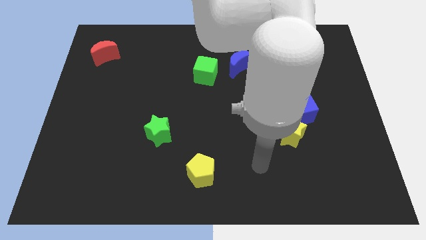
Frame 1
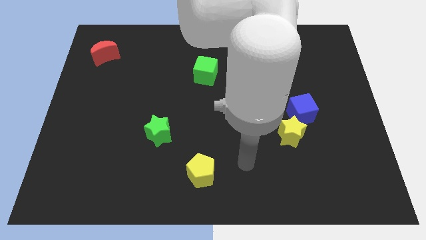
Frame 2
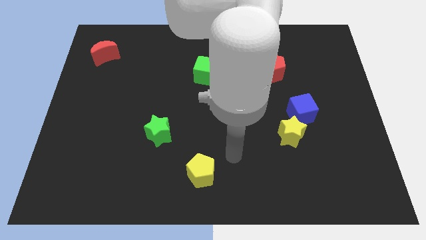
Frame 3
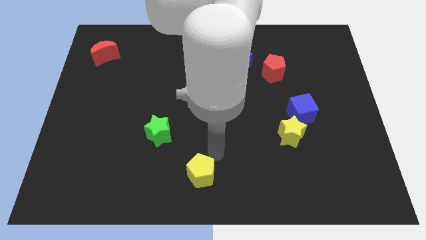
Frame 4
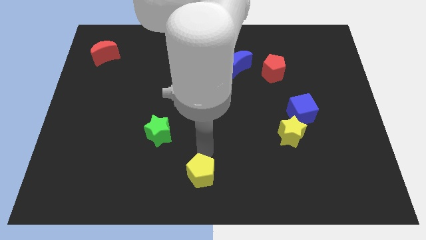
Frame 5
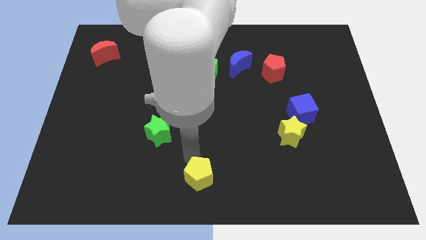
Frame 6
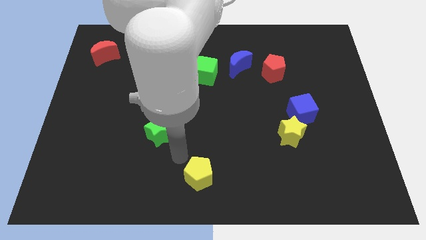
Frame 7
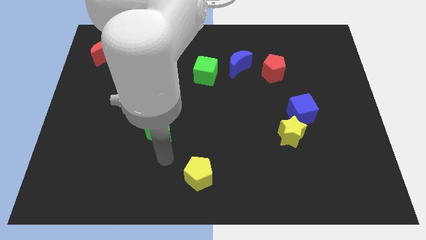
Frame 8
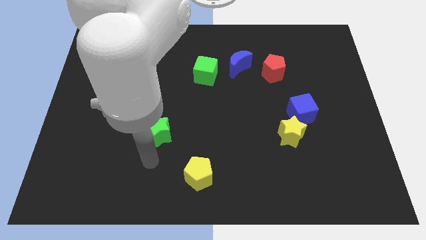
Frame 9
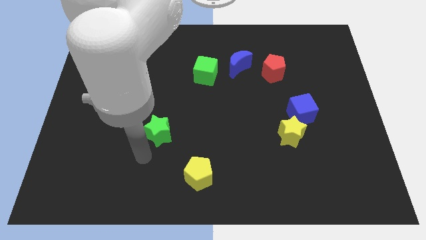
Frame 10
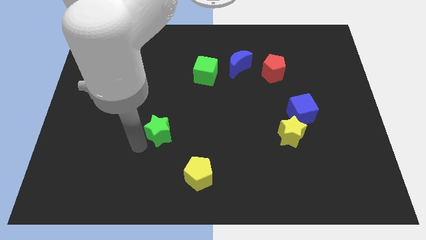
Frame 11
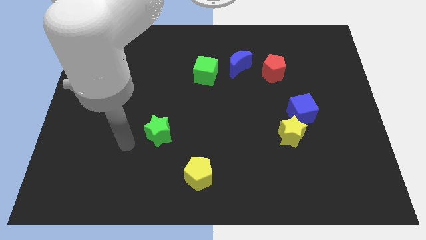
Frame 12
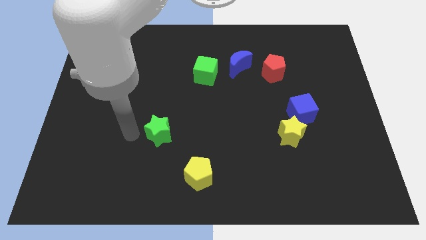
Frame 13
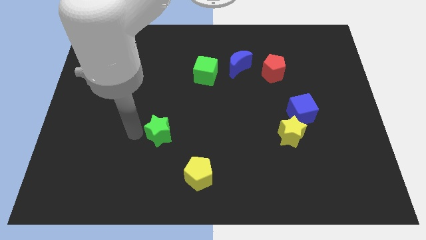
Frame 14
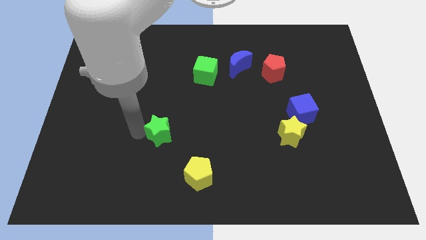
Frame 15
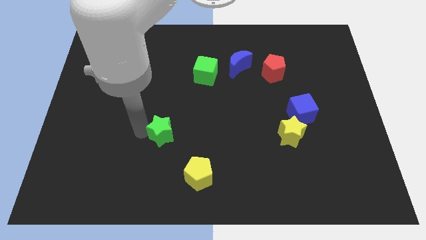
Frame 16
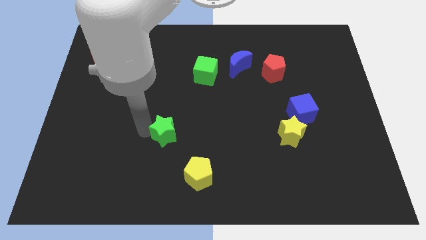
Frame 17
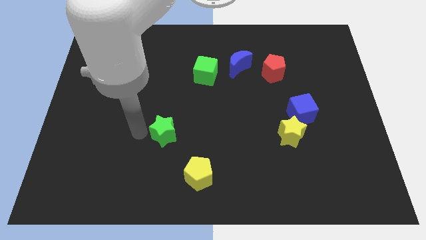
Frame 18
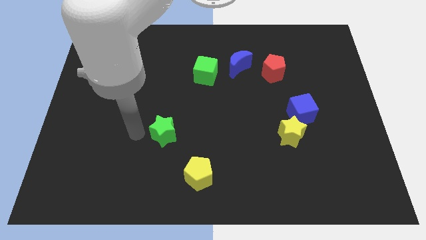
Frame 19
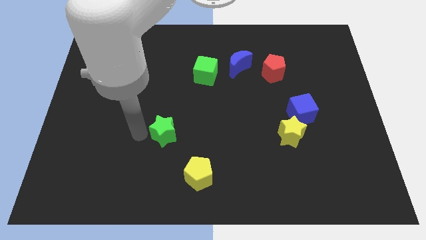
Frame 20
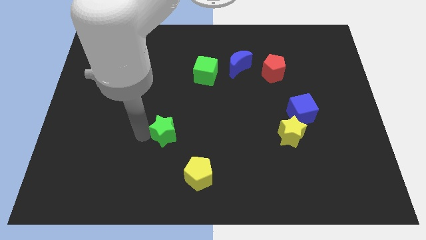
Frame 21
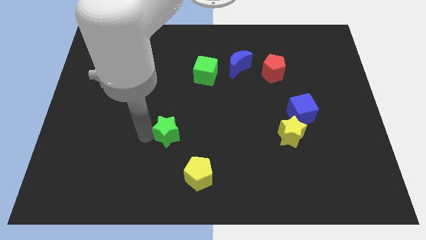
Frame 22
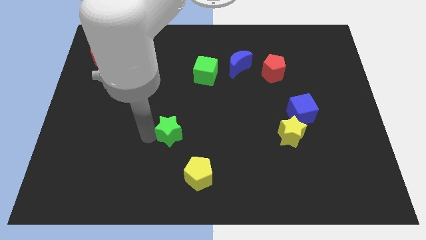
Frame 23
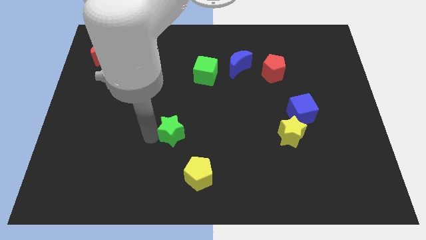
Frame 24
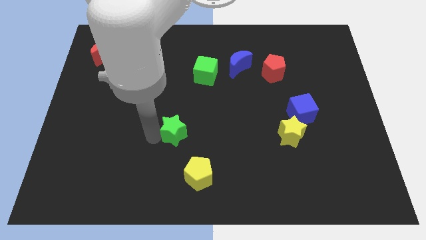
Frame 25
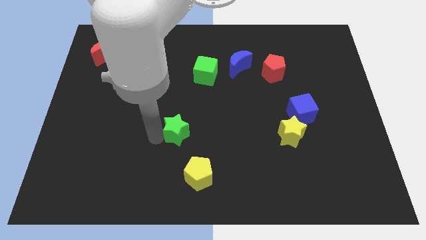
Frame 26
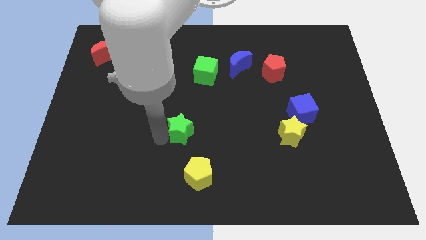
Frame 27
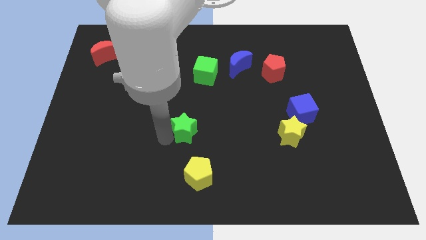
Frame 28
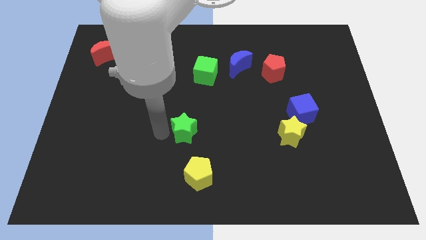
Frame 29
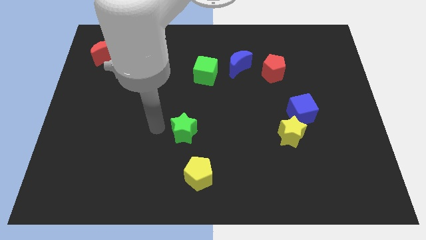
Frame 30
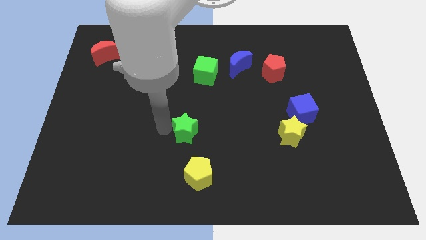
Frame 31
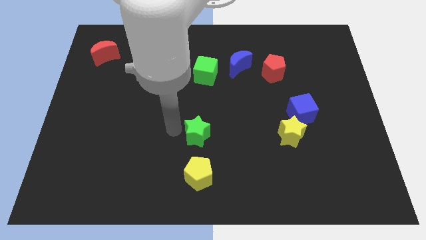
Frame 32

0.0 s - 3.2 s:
push the green star somewhat to the right

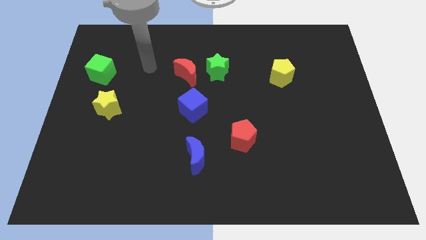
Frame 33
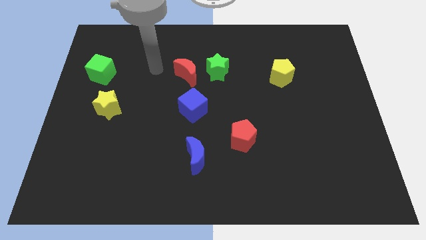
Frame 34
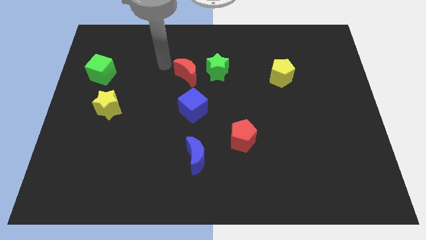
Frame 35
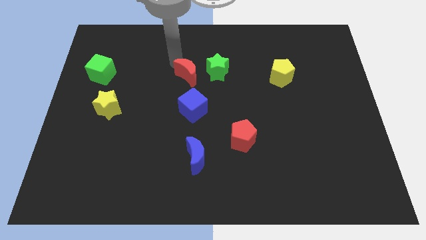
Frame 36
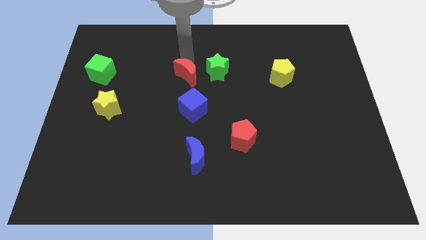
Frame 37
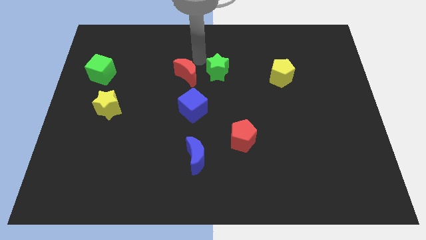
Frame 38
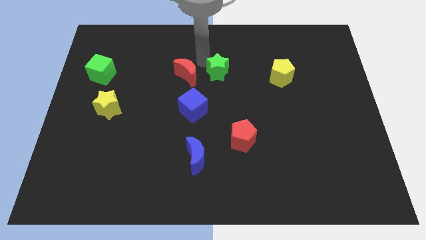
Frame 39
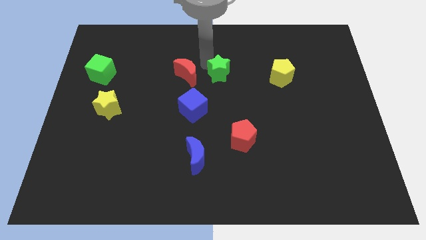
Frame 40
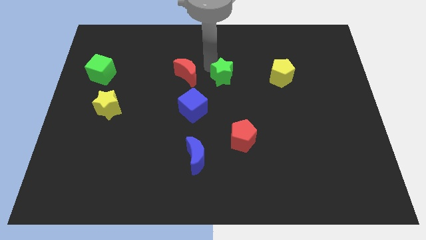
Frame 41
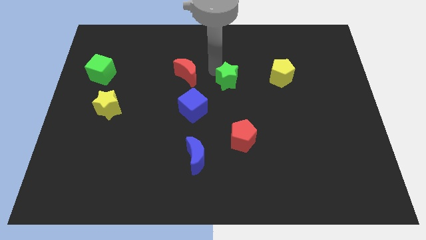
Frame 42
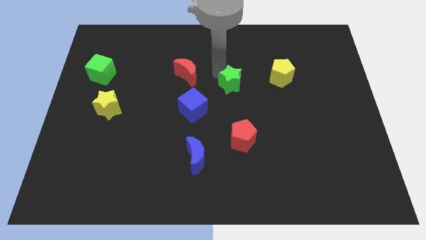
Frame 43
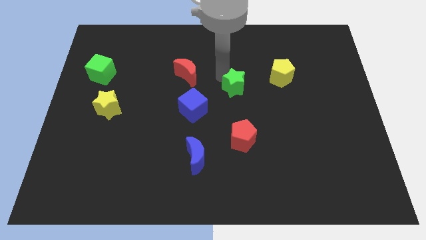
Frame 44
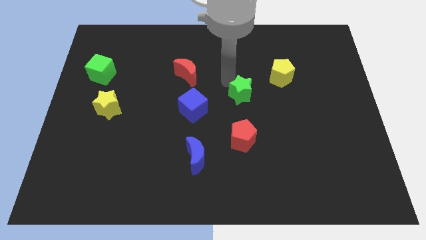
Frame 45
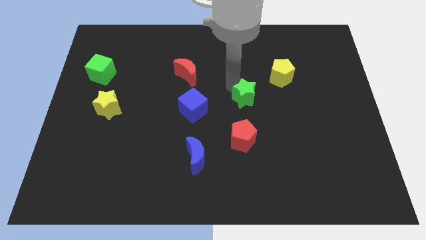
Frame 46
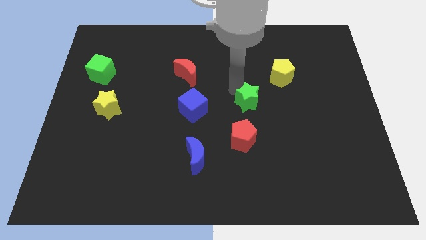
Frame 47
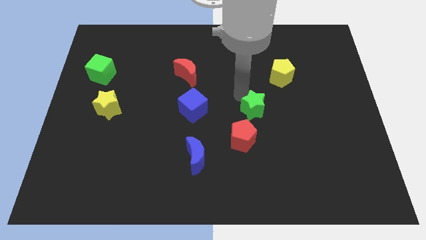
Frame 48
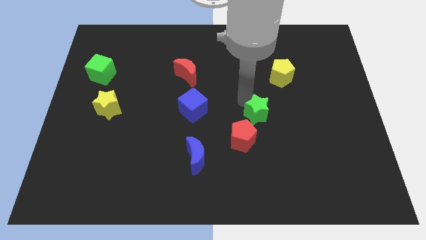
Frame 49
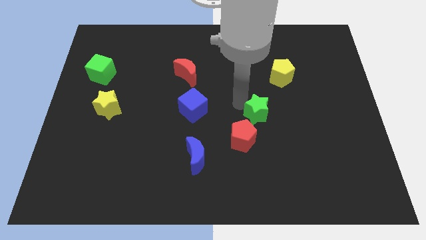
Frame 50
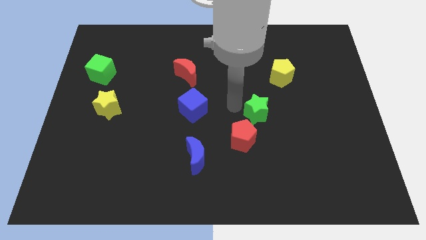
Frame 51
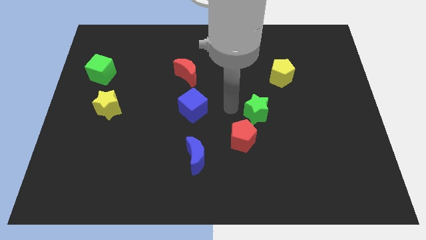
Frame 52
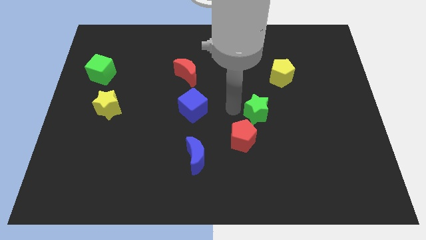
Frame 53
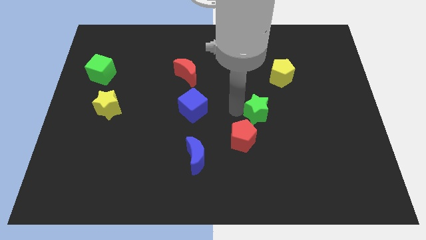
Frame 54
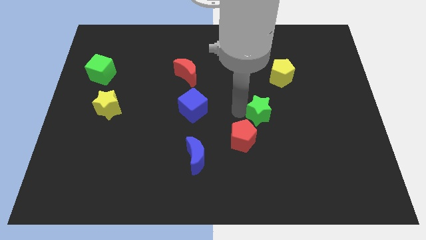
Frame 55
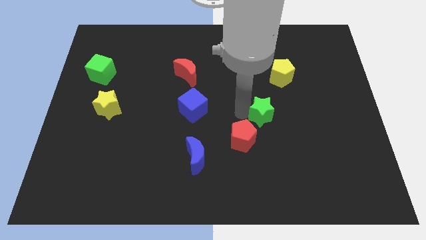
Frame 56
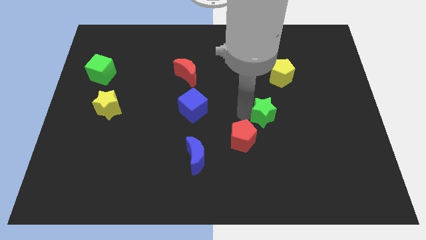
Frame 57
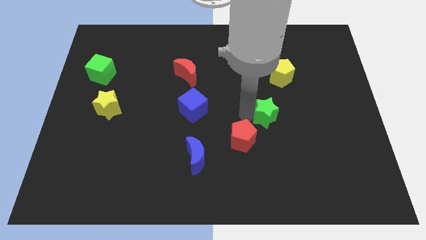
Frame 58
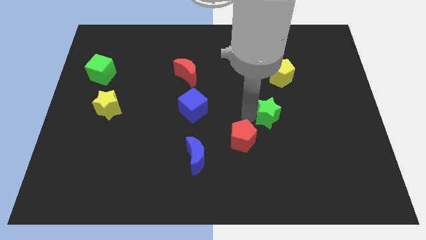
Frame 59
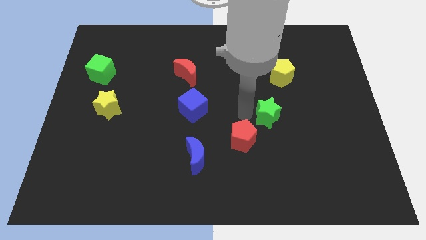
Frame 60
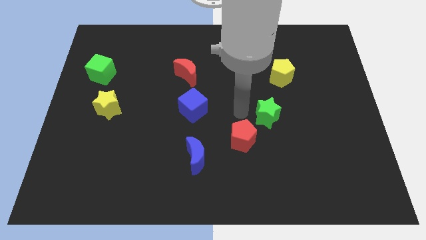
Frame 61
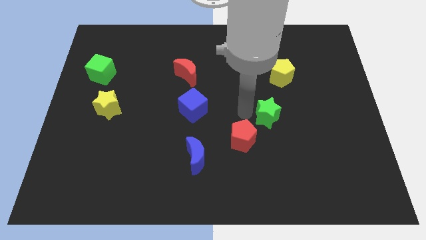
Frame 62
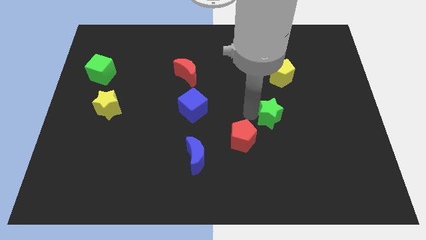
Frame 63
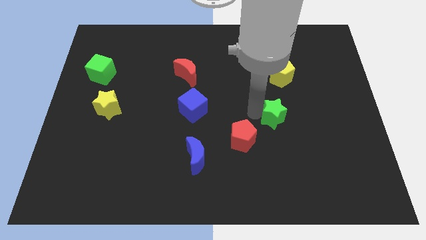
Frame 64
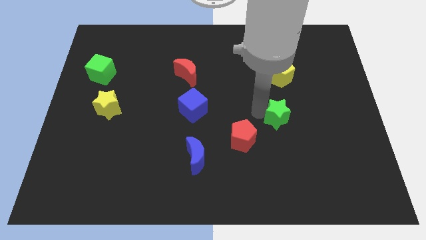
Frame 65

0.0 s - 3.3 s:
slide the green star downwards and to the right

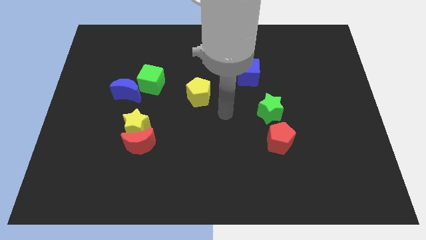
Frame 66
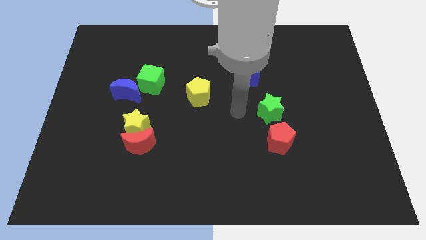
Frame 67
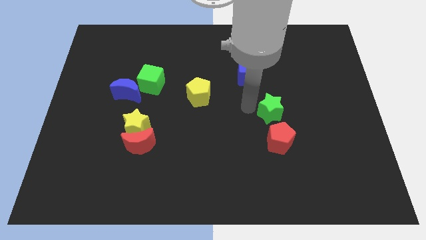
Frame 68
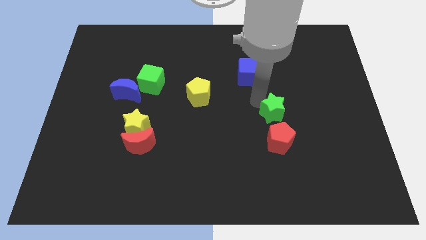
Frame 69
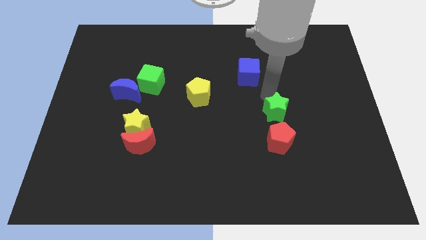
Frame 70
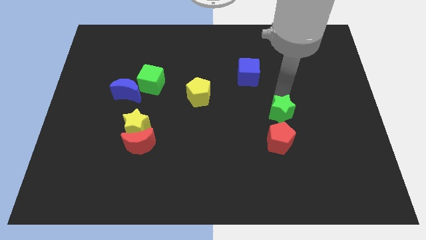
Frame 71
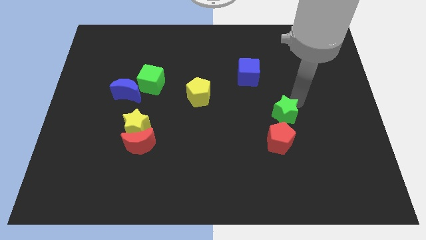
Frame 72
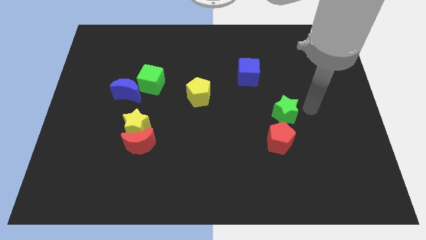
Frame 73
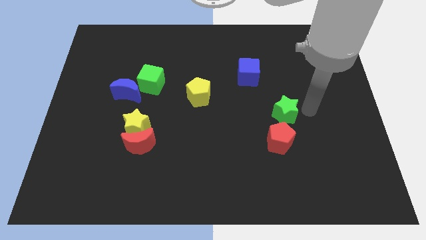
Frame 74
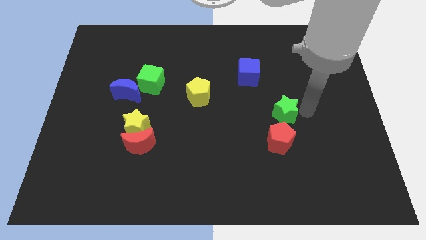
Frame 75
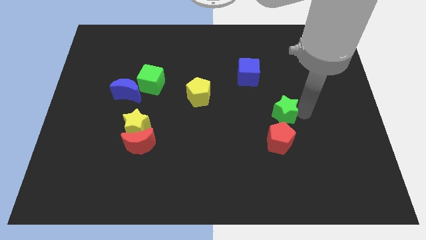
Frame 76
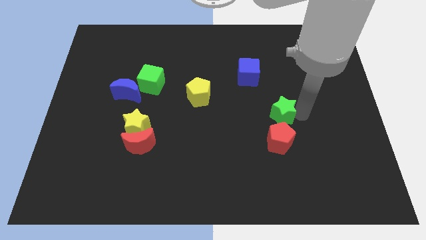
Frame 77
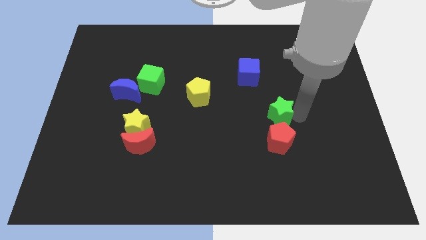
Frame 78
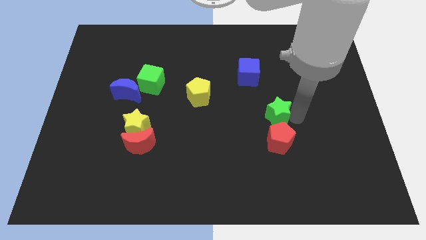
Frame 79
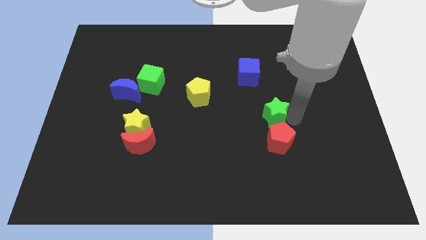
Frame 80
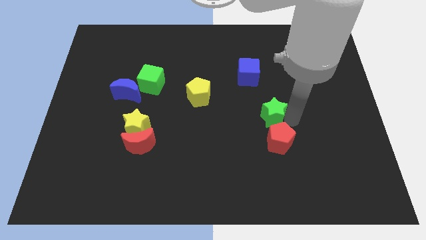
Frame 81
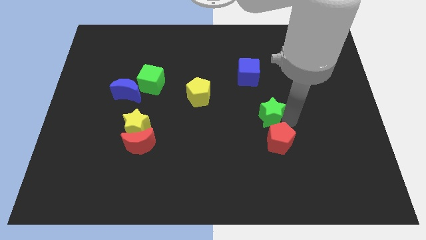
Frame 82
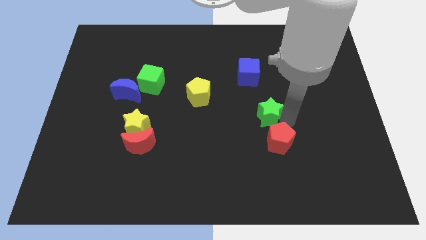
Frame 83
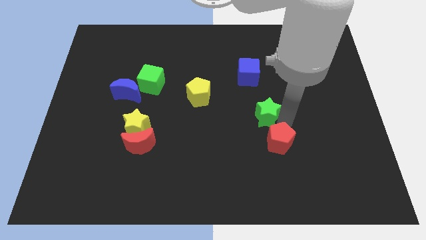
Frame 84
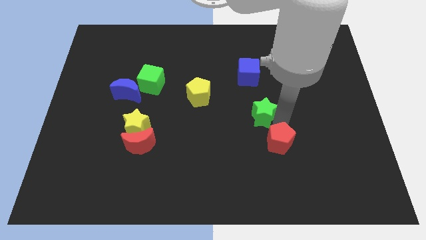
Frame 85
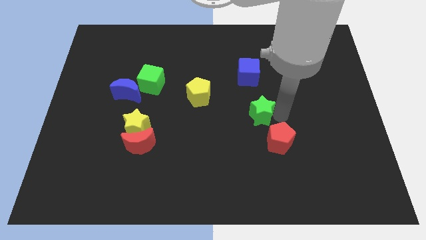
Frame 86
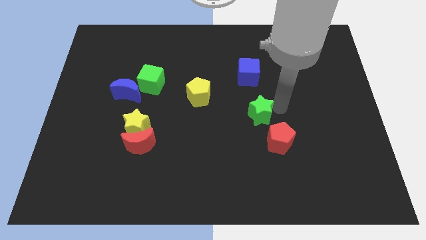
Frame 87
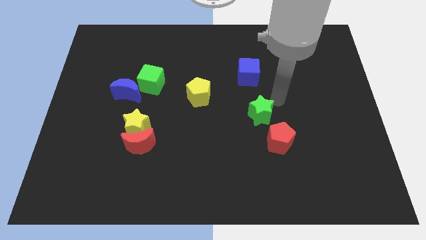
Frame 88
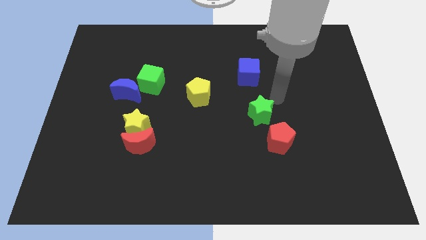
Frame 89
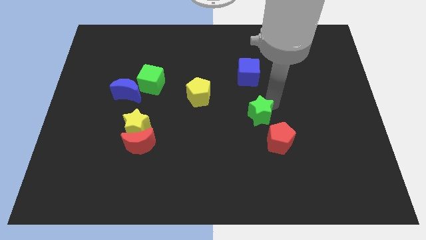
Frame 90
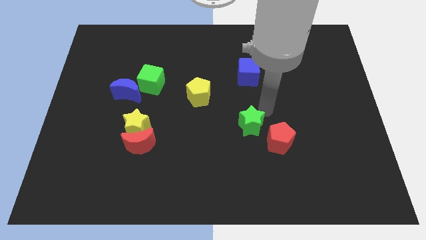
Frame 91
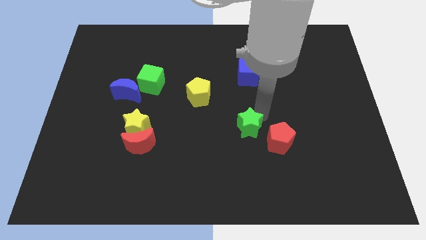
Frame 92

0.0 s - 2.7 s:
move the green star a little bit down and left diagonally
